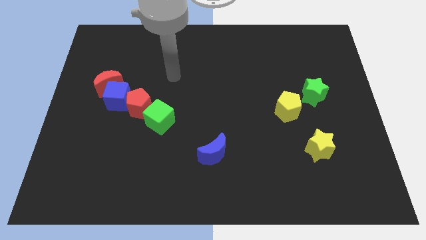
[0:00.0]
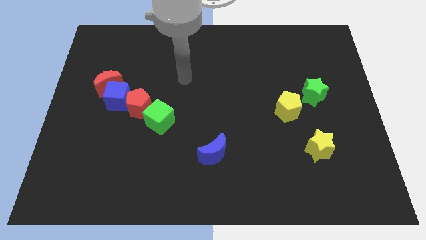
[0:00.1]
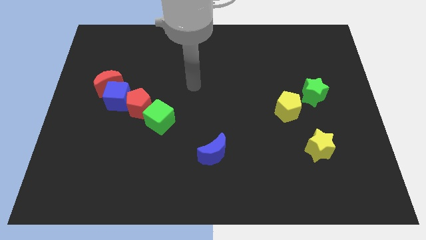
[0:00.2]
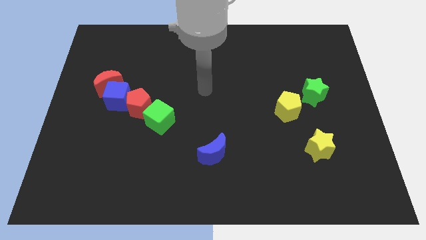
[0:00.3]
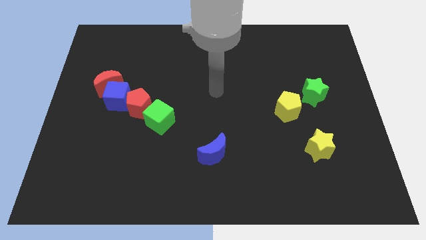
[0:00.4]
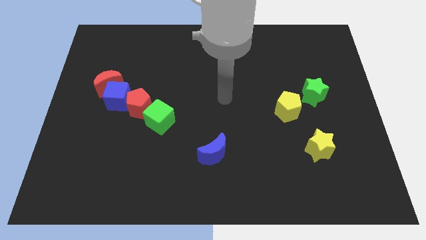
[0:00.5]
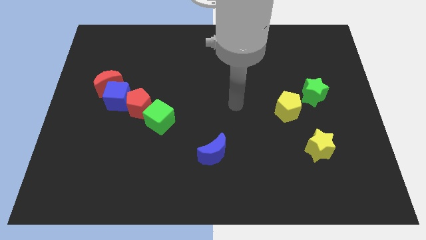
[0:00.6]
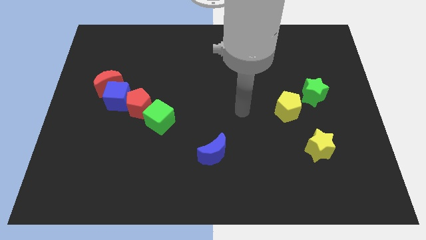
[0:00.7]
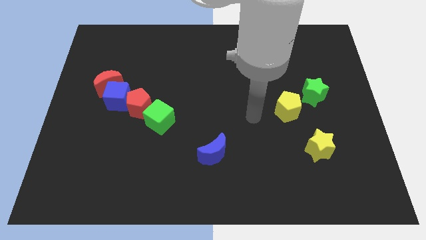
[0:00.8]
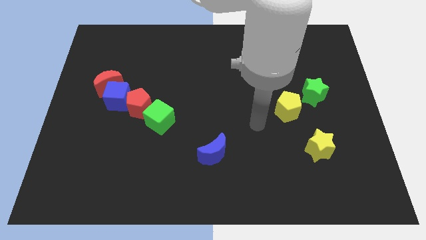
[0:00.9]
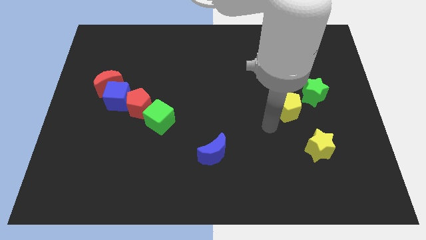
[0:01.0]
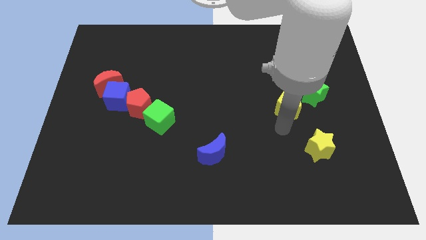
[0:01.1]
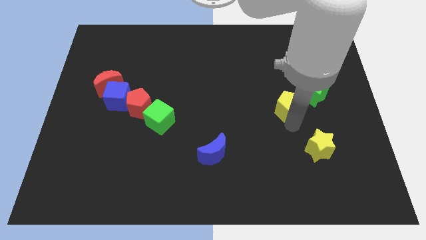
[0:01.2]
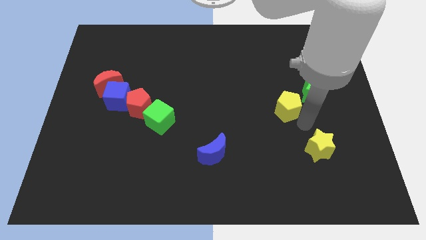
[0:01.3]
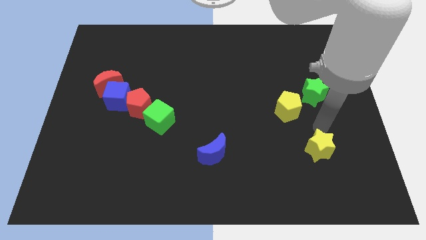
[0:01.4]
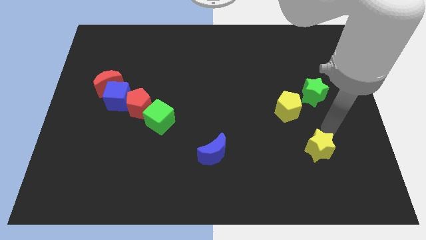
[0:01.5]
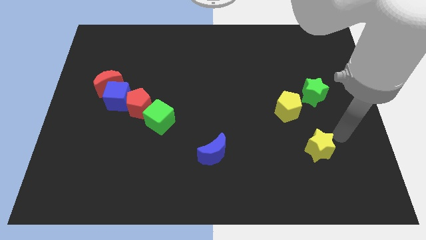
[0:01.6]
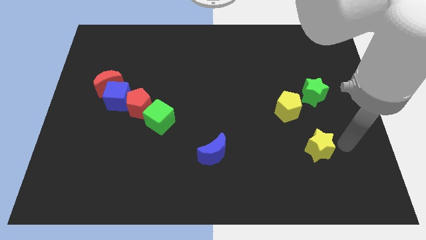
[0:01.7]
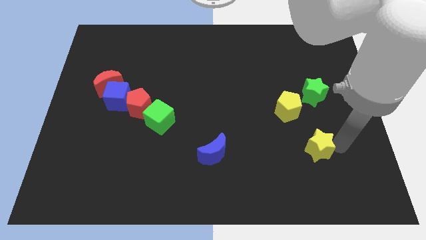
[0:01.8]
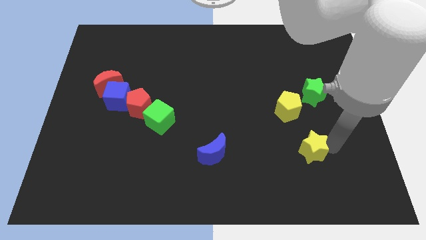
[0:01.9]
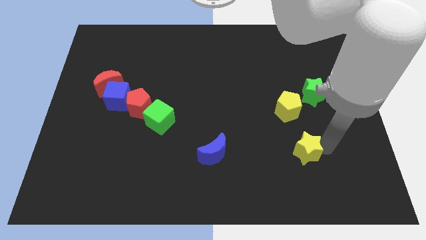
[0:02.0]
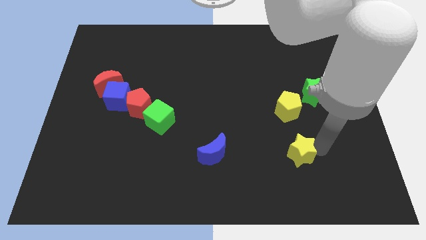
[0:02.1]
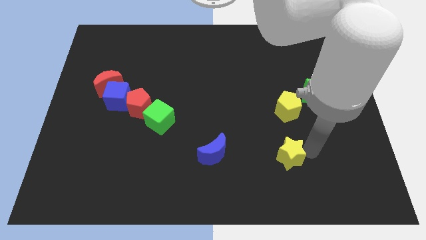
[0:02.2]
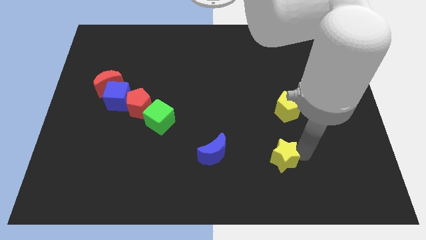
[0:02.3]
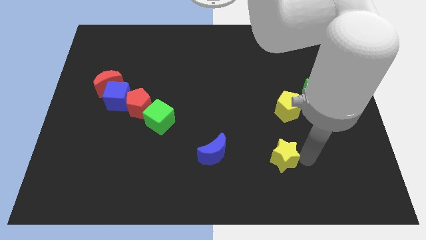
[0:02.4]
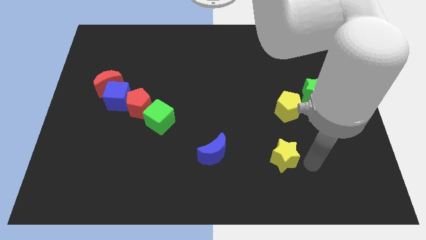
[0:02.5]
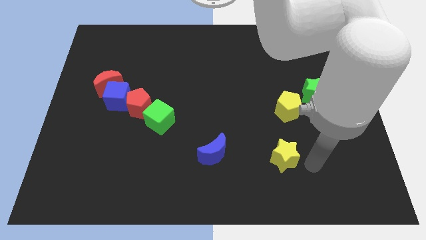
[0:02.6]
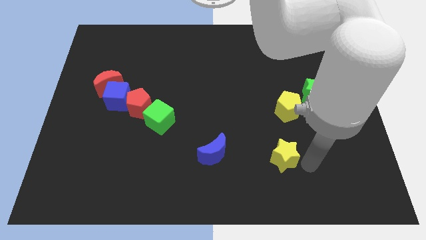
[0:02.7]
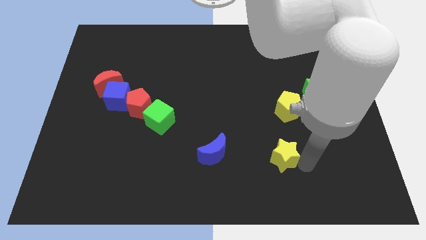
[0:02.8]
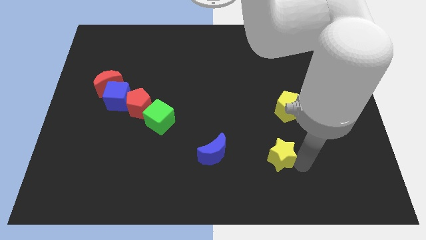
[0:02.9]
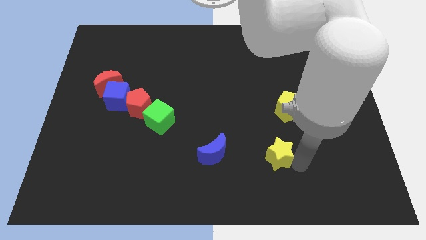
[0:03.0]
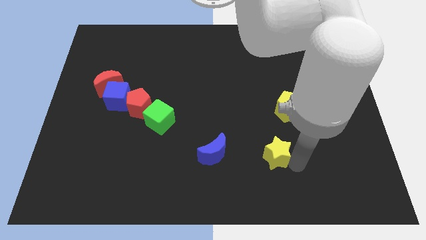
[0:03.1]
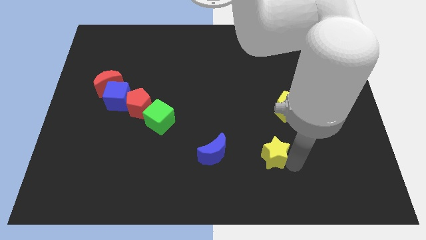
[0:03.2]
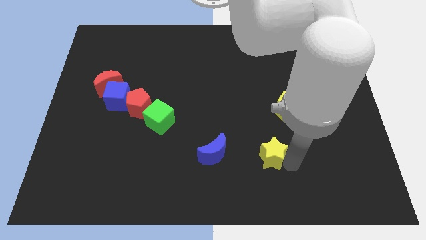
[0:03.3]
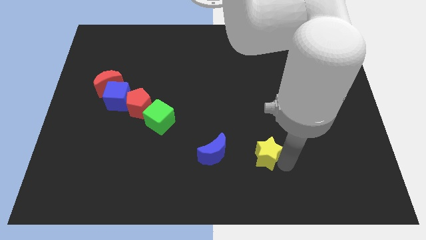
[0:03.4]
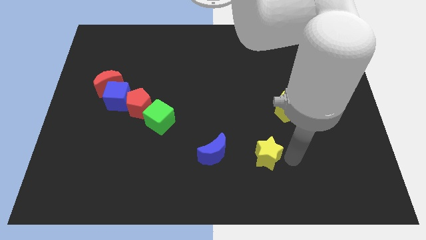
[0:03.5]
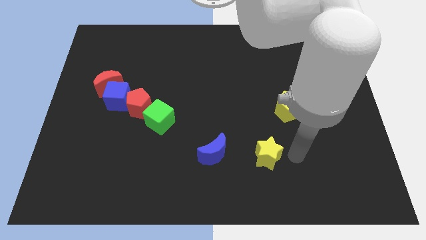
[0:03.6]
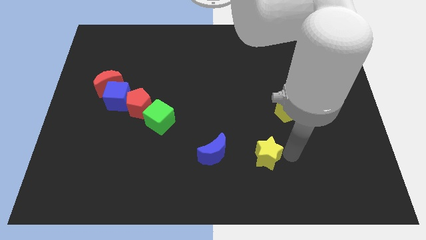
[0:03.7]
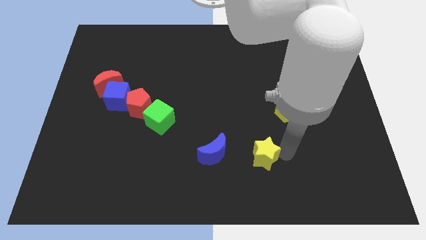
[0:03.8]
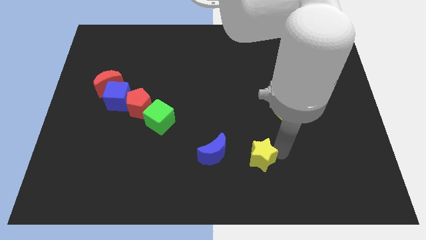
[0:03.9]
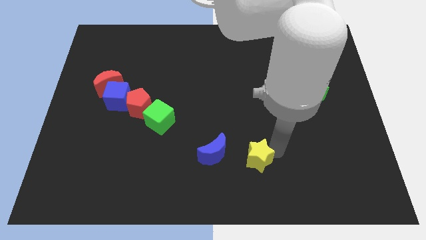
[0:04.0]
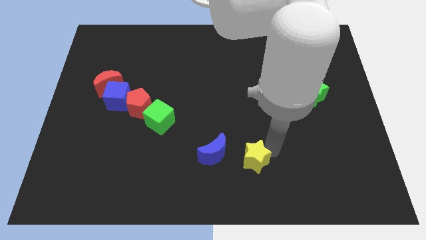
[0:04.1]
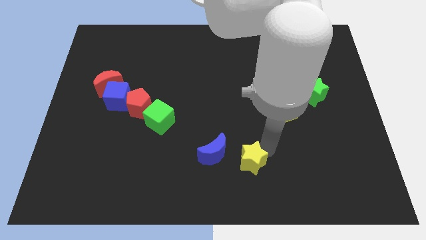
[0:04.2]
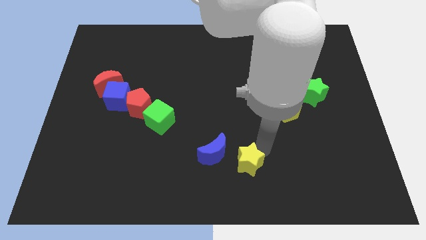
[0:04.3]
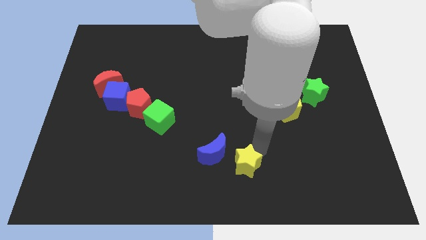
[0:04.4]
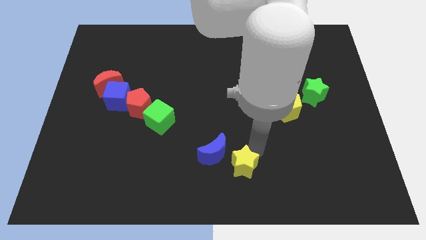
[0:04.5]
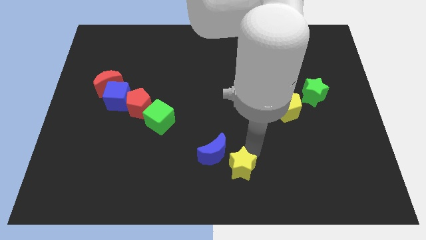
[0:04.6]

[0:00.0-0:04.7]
put the yellow star close to the blue moon

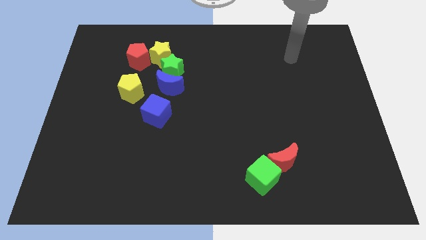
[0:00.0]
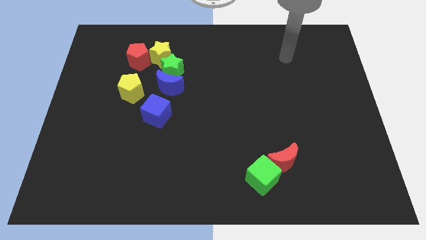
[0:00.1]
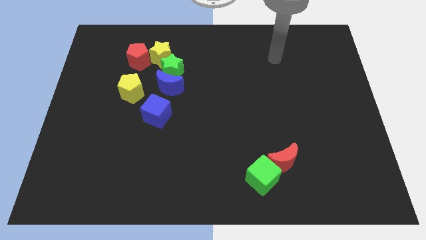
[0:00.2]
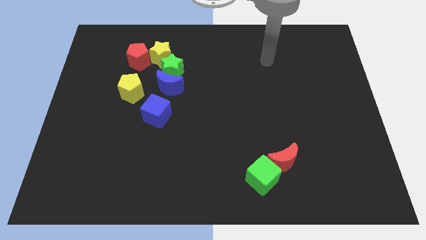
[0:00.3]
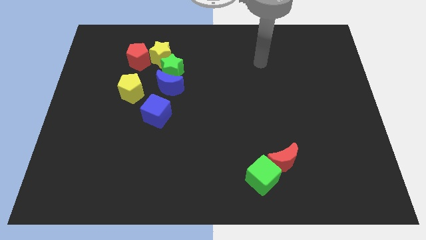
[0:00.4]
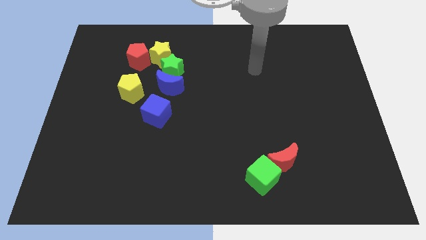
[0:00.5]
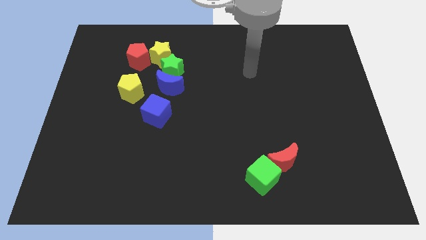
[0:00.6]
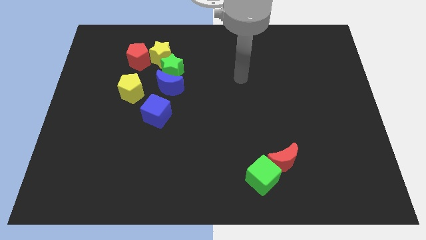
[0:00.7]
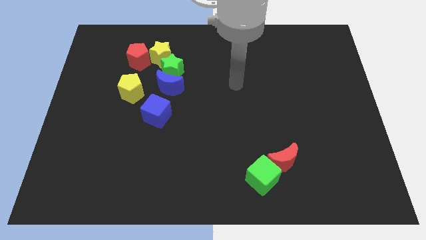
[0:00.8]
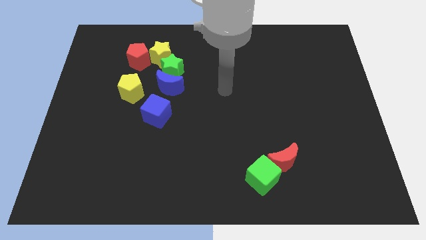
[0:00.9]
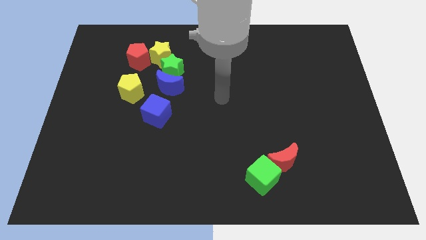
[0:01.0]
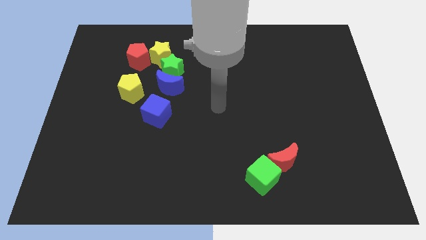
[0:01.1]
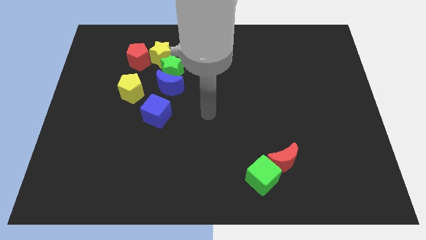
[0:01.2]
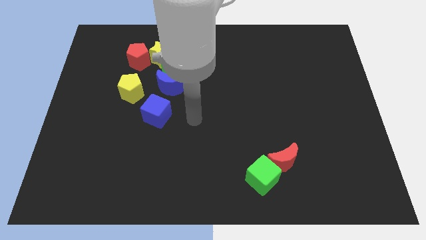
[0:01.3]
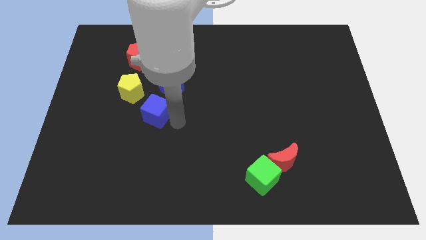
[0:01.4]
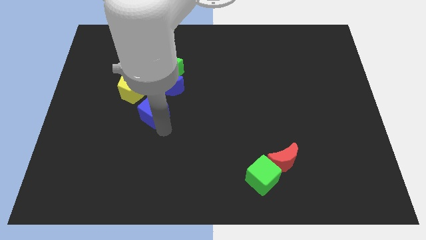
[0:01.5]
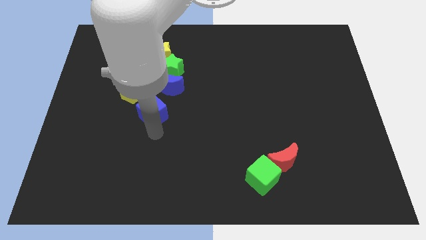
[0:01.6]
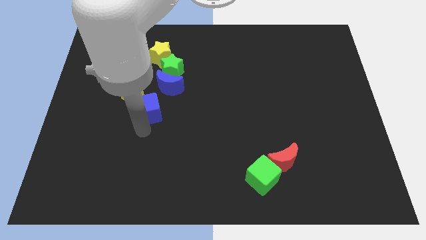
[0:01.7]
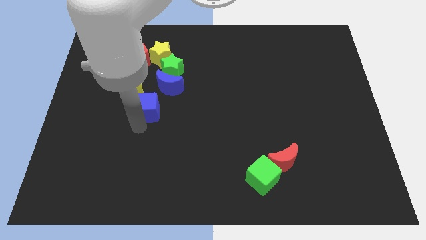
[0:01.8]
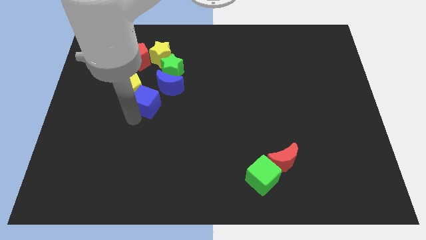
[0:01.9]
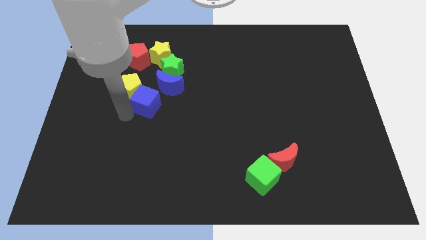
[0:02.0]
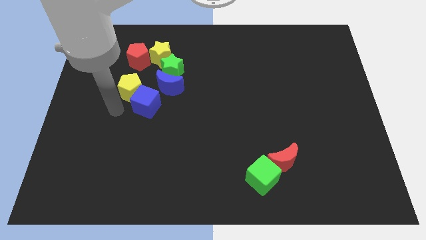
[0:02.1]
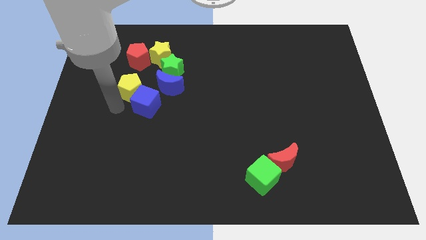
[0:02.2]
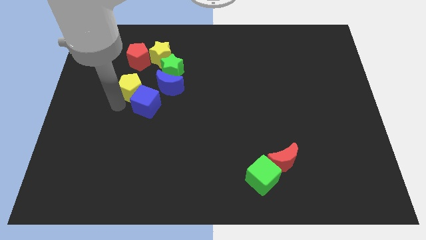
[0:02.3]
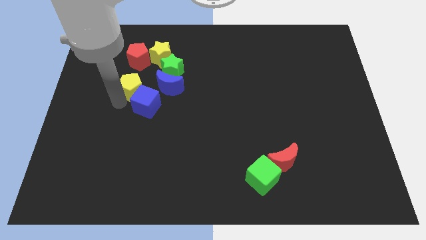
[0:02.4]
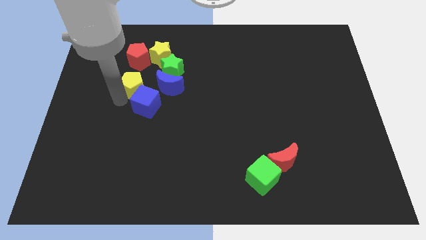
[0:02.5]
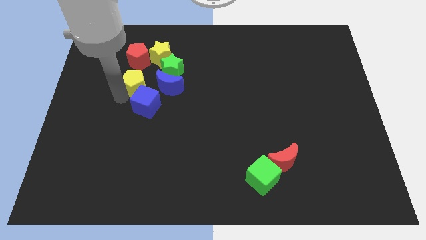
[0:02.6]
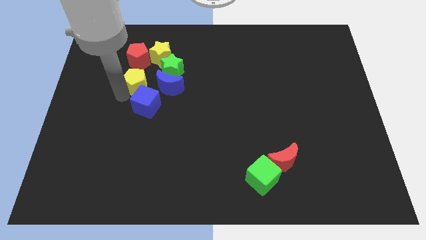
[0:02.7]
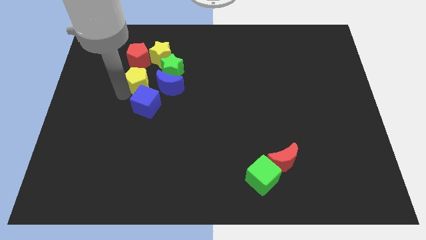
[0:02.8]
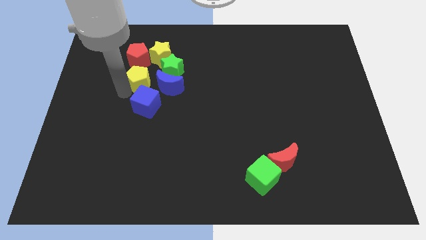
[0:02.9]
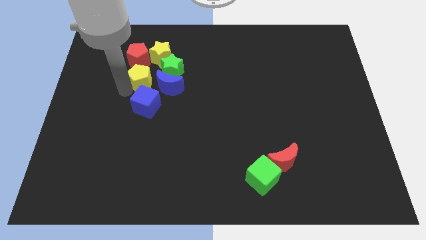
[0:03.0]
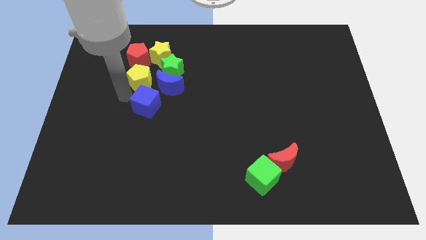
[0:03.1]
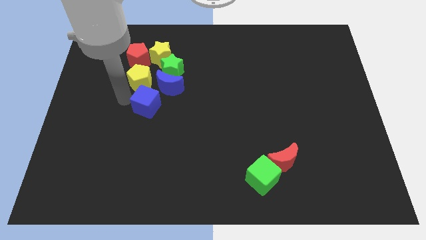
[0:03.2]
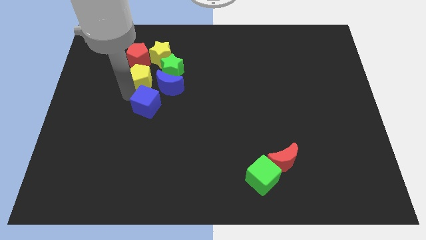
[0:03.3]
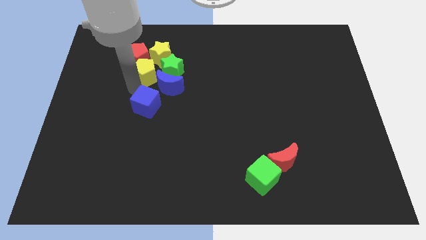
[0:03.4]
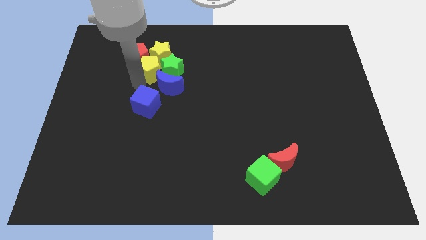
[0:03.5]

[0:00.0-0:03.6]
move the yellow pentagon close to the yellow star
